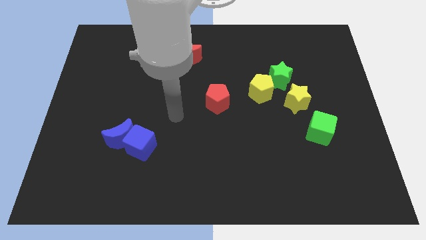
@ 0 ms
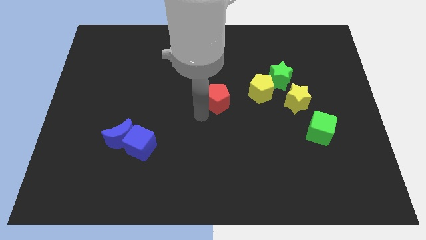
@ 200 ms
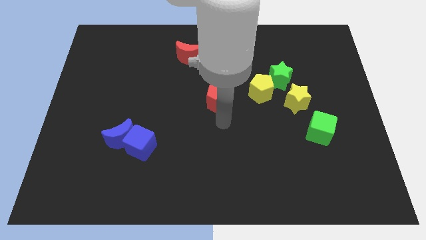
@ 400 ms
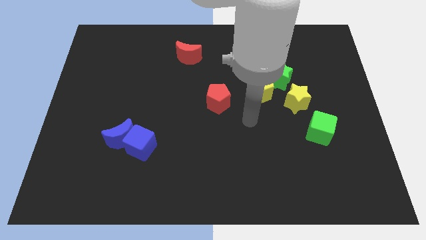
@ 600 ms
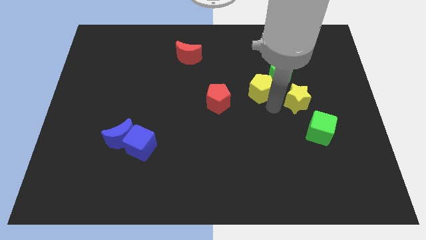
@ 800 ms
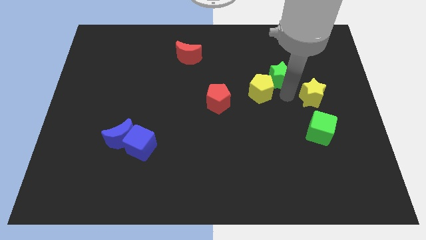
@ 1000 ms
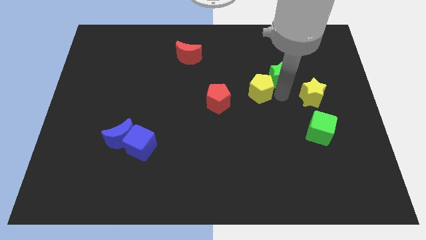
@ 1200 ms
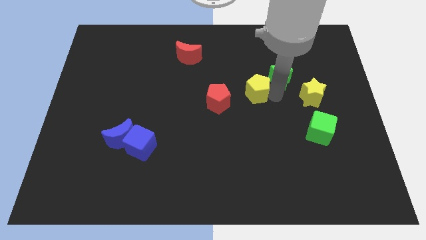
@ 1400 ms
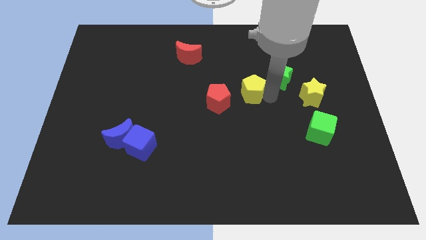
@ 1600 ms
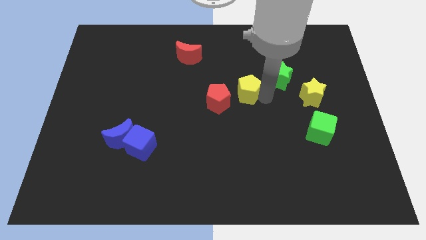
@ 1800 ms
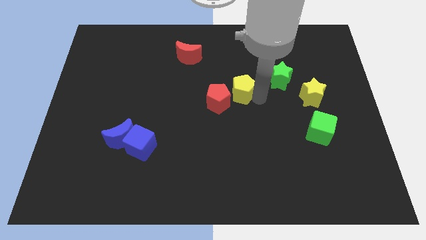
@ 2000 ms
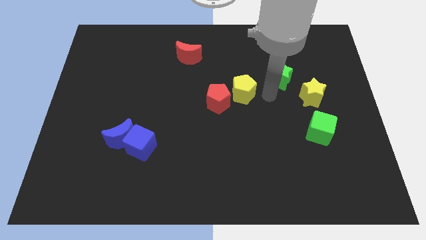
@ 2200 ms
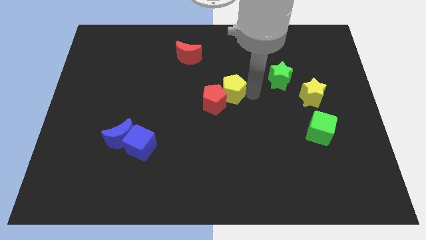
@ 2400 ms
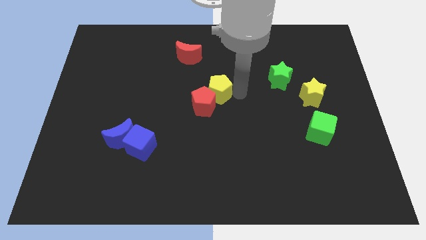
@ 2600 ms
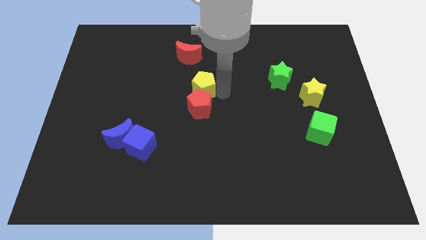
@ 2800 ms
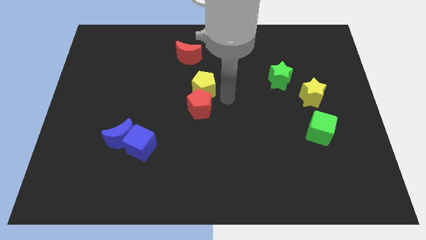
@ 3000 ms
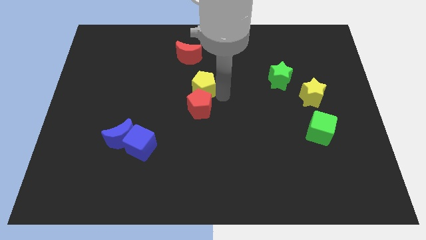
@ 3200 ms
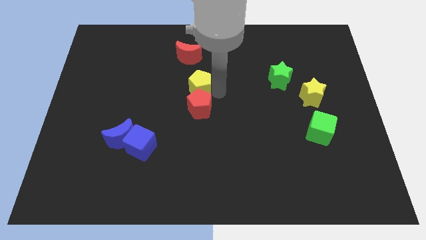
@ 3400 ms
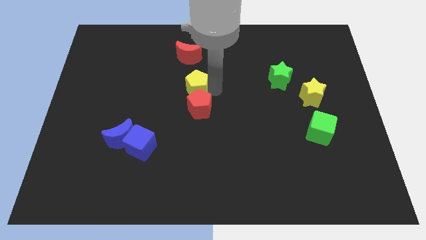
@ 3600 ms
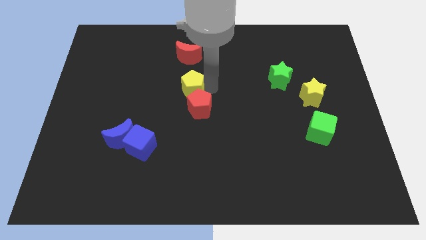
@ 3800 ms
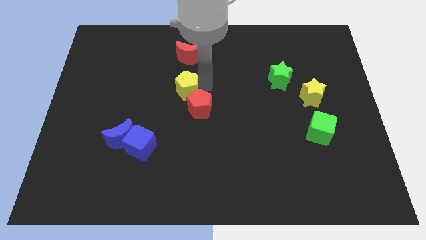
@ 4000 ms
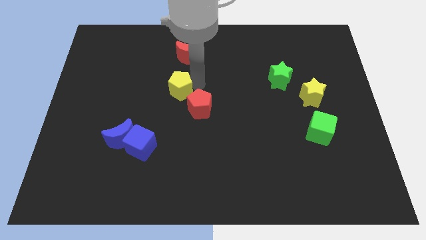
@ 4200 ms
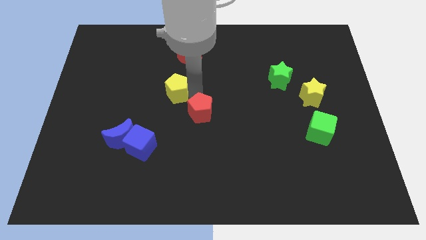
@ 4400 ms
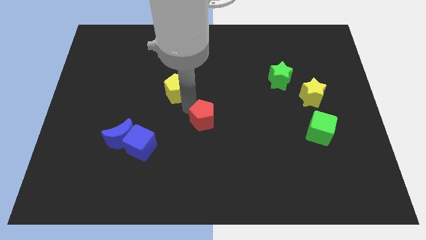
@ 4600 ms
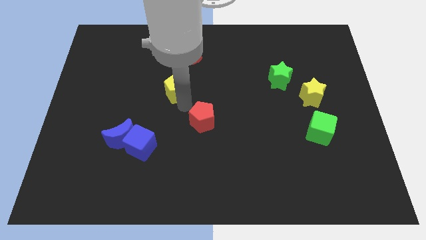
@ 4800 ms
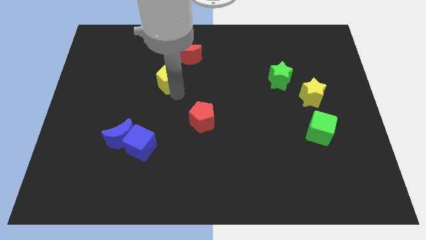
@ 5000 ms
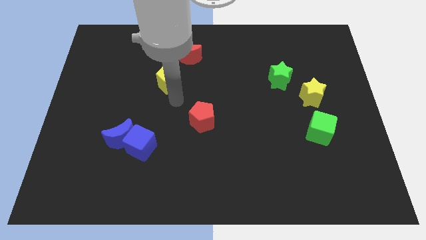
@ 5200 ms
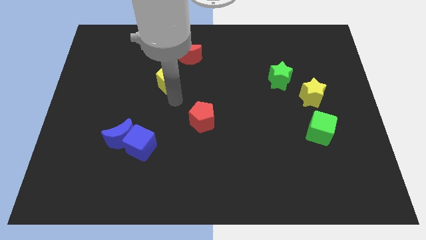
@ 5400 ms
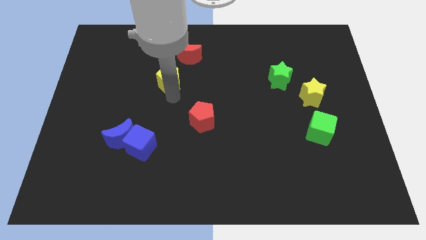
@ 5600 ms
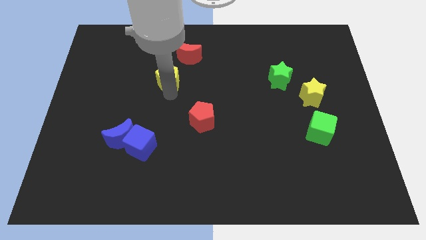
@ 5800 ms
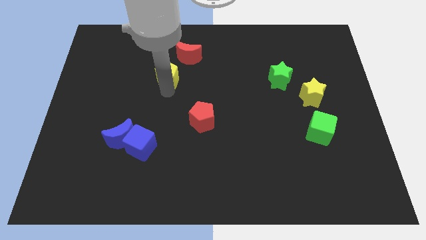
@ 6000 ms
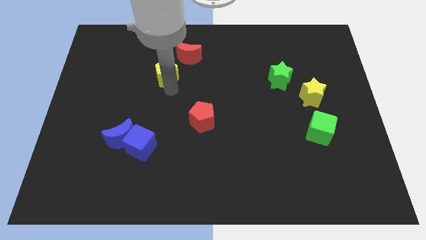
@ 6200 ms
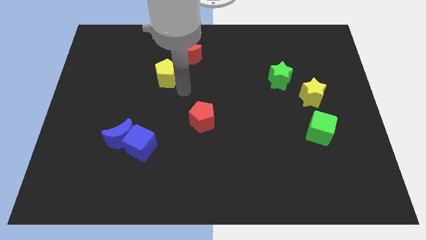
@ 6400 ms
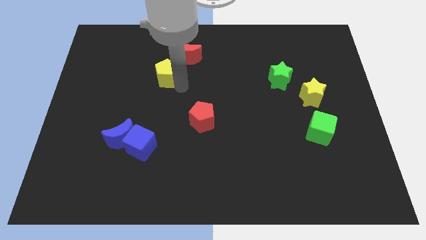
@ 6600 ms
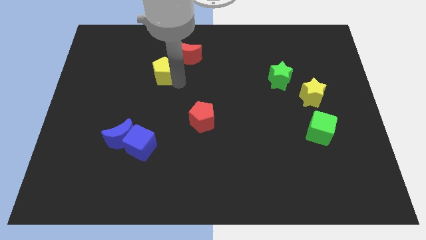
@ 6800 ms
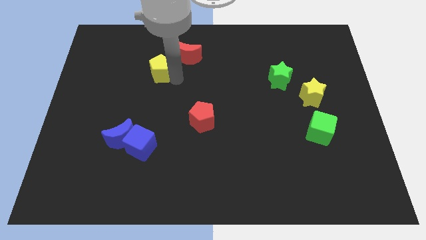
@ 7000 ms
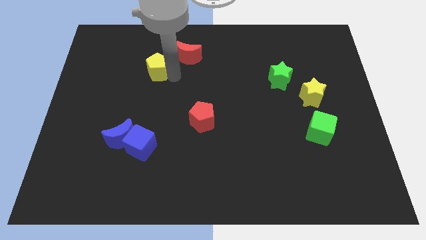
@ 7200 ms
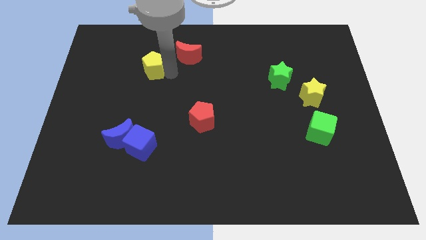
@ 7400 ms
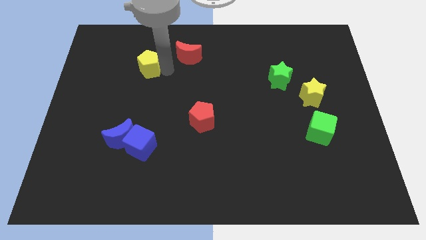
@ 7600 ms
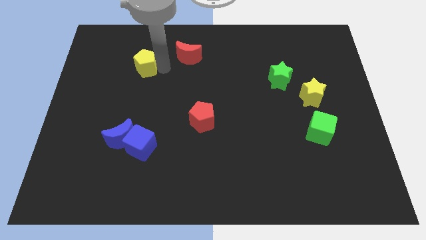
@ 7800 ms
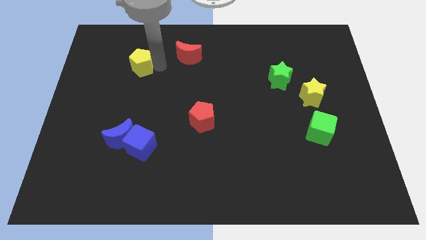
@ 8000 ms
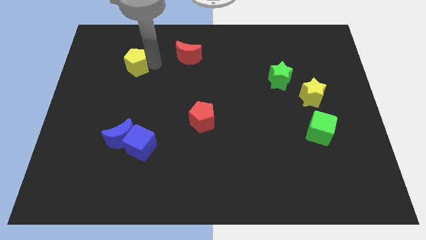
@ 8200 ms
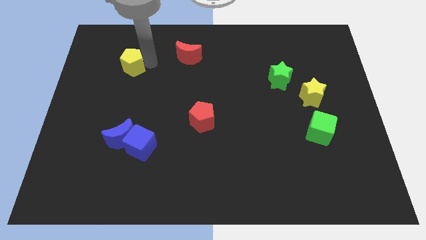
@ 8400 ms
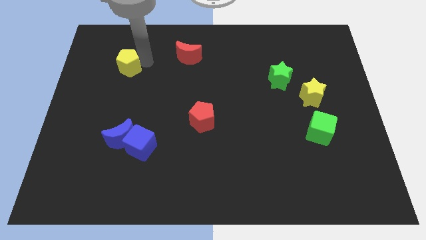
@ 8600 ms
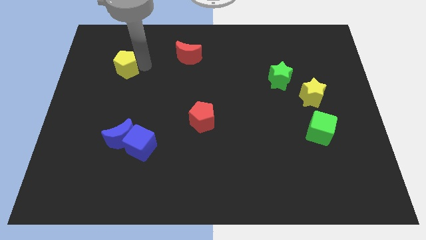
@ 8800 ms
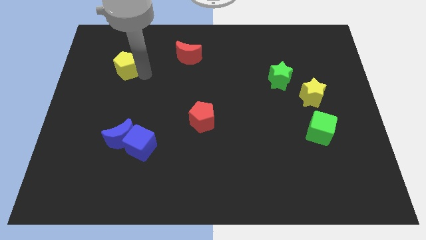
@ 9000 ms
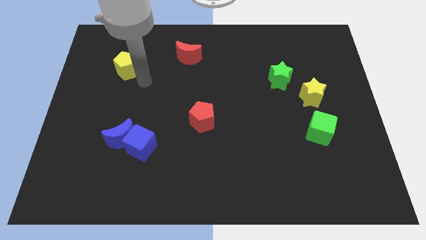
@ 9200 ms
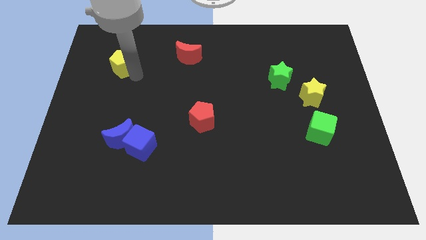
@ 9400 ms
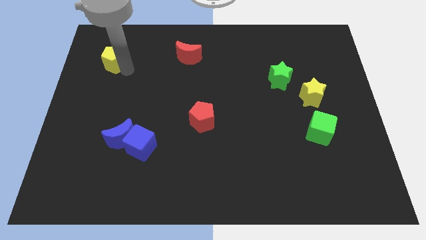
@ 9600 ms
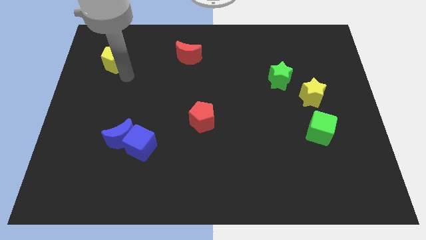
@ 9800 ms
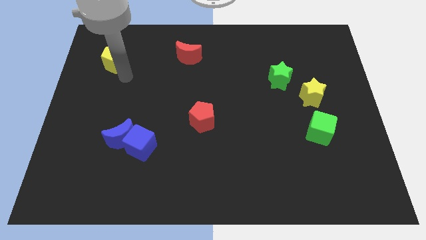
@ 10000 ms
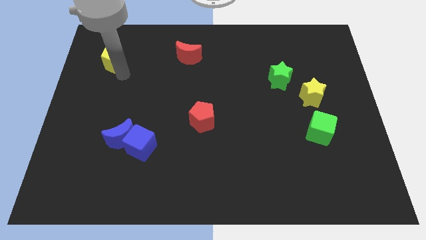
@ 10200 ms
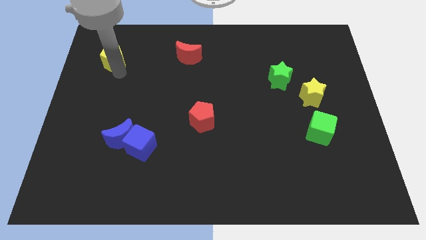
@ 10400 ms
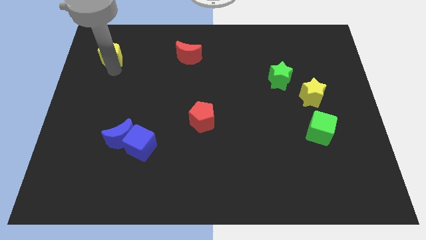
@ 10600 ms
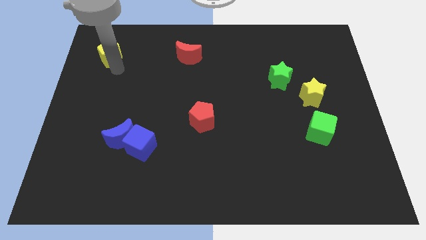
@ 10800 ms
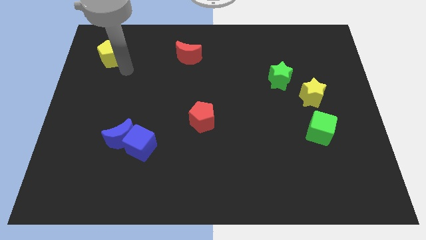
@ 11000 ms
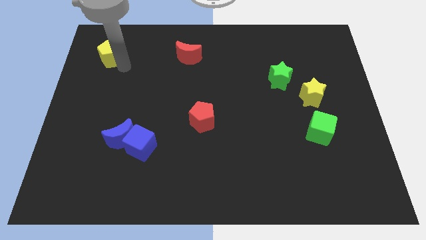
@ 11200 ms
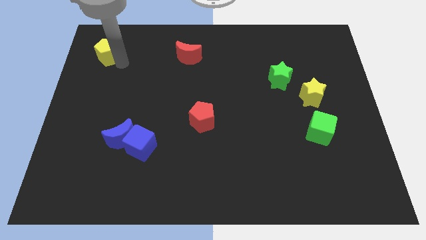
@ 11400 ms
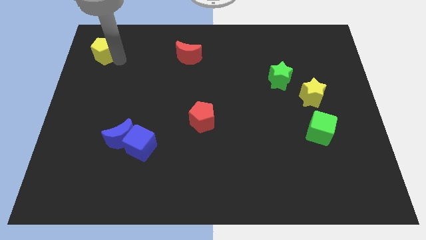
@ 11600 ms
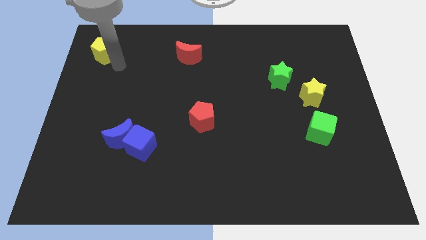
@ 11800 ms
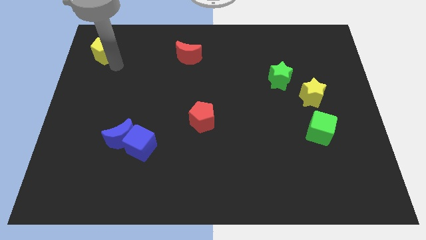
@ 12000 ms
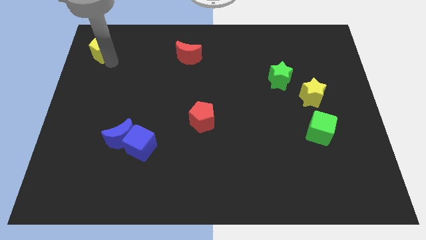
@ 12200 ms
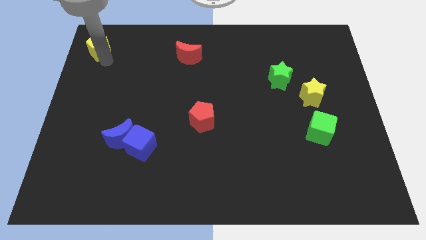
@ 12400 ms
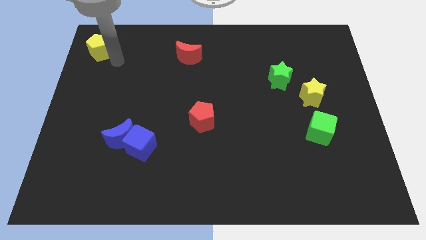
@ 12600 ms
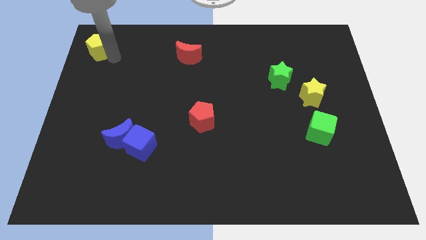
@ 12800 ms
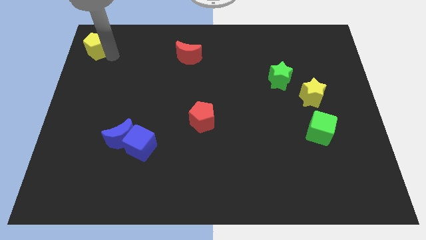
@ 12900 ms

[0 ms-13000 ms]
slide the yellow pentagon to the top left
